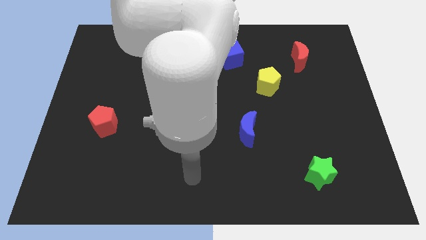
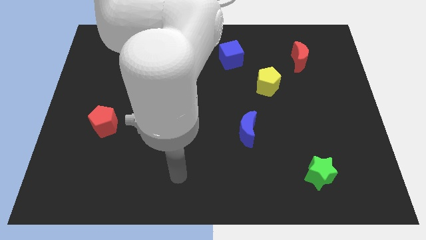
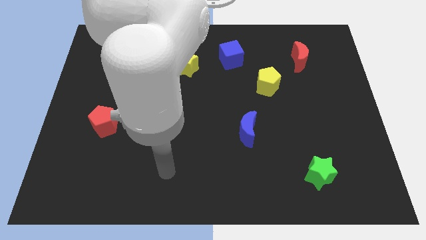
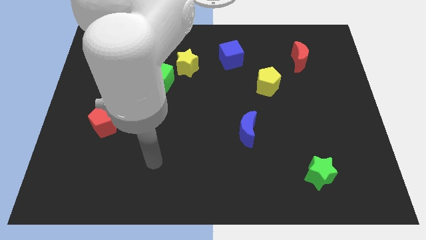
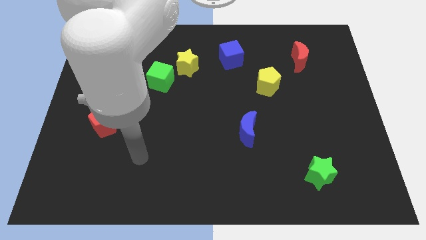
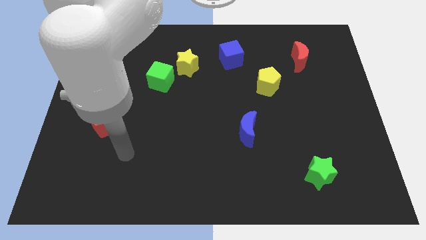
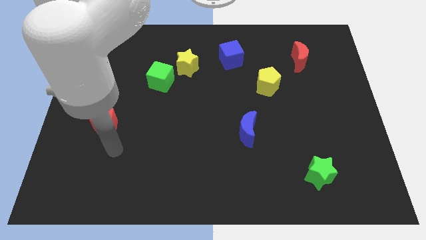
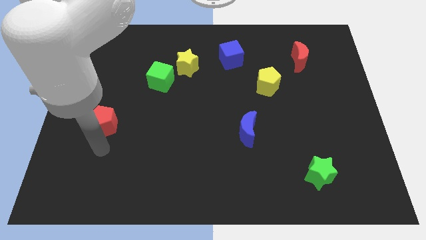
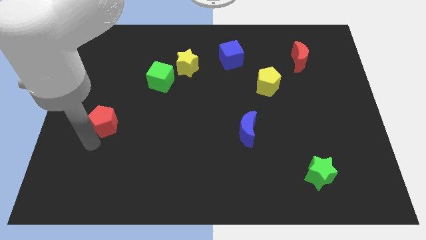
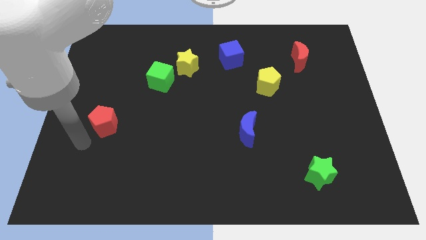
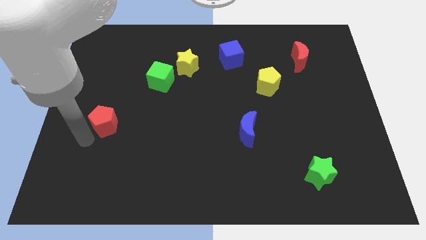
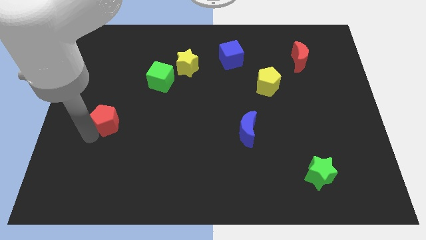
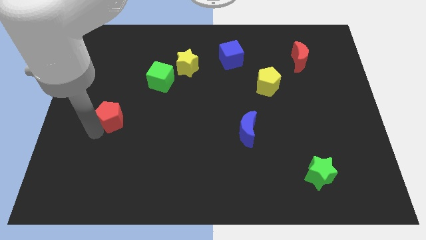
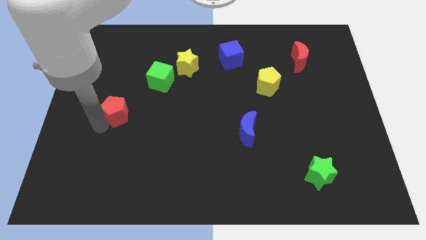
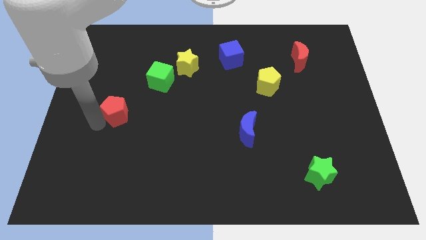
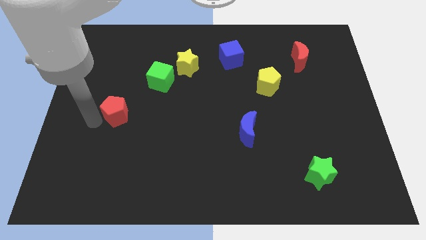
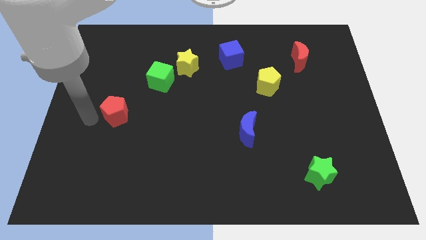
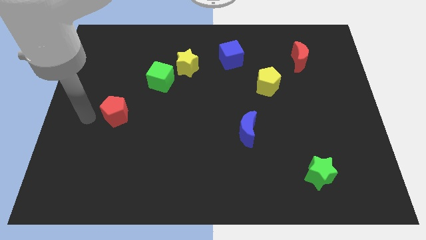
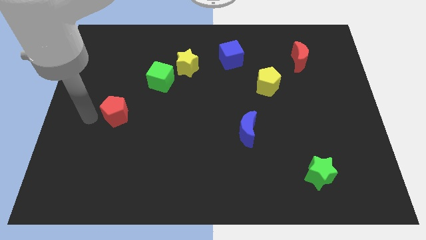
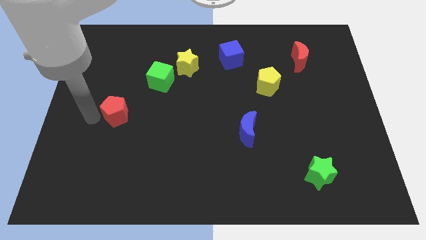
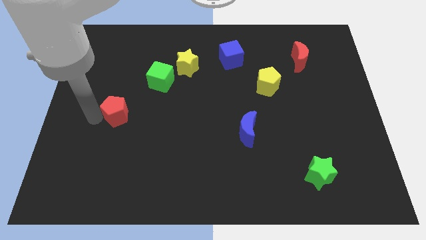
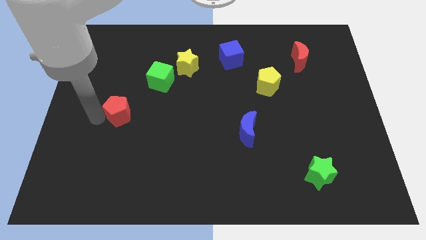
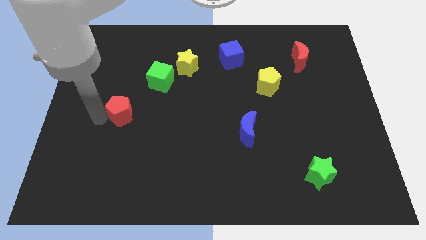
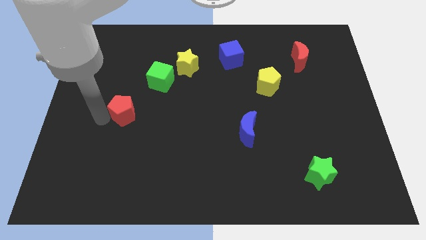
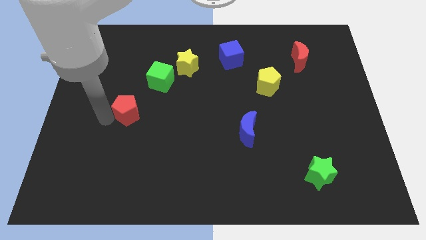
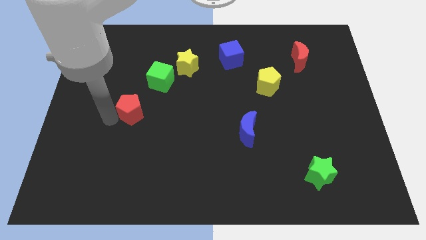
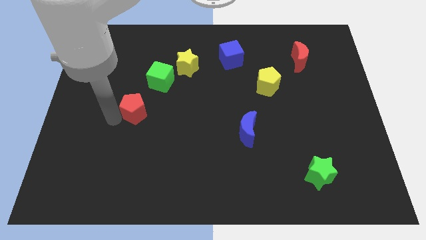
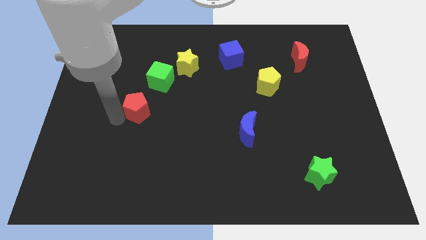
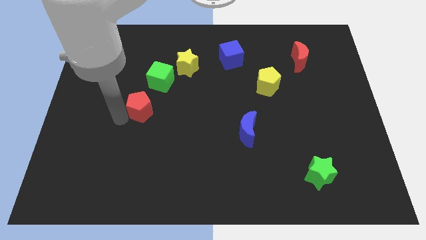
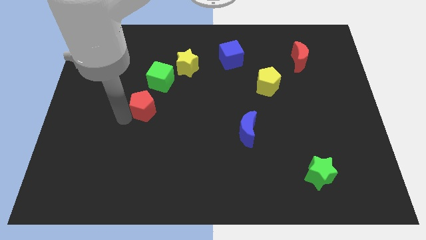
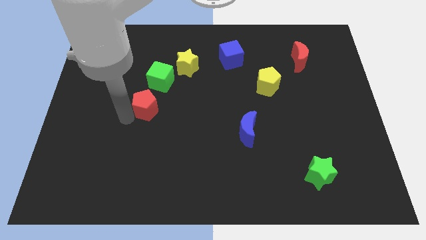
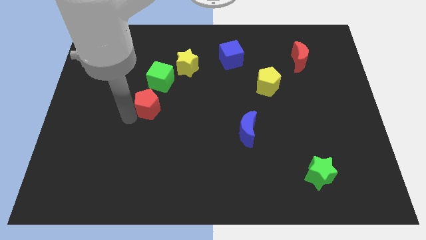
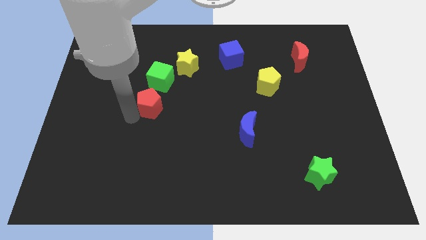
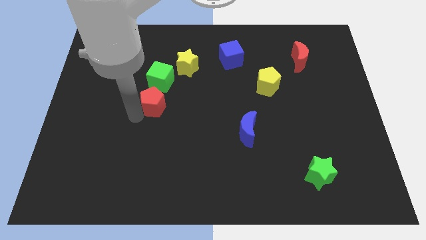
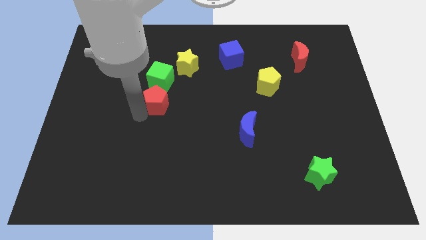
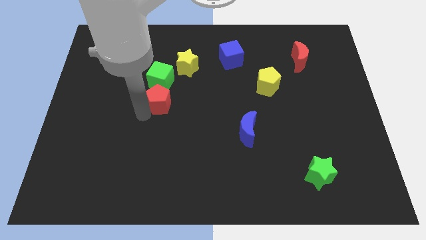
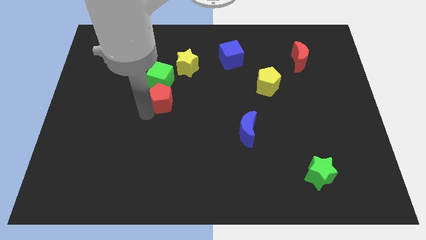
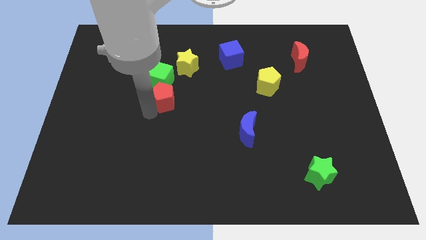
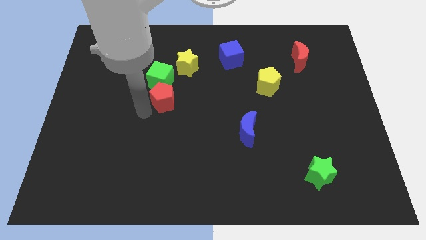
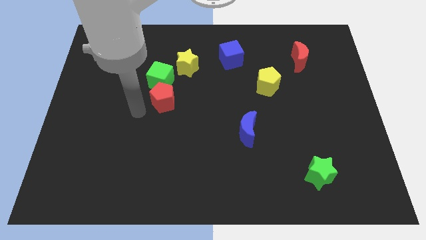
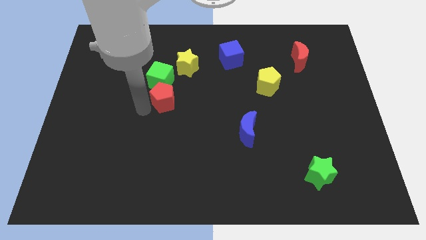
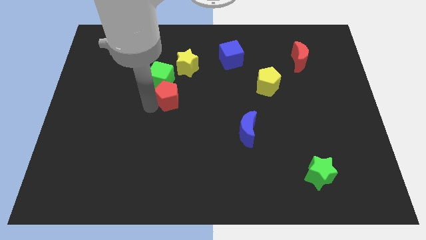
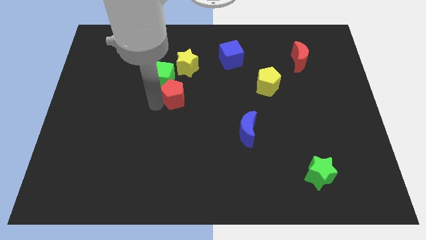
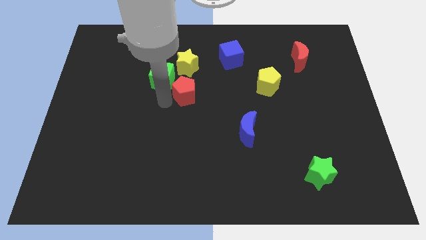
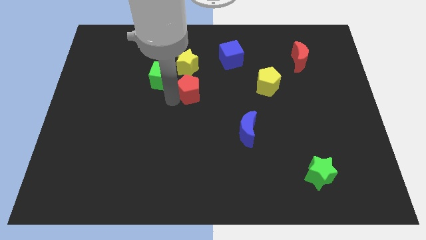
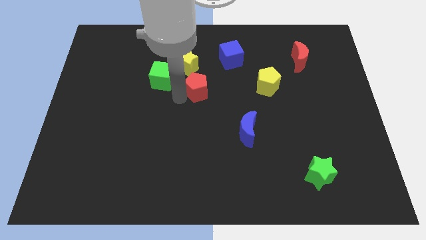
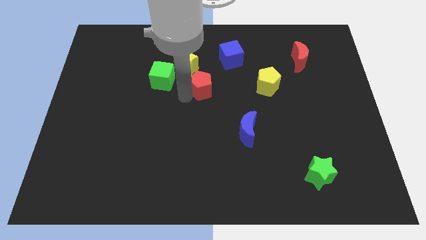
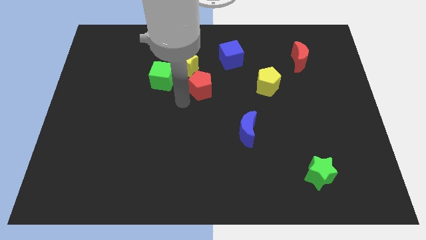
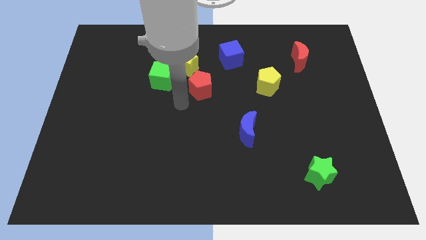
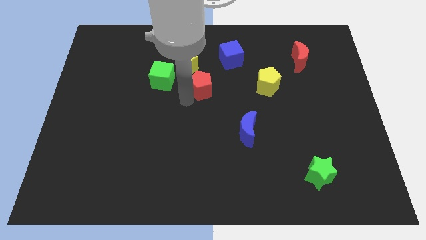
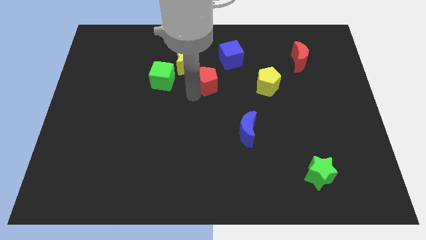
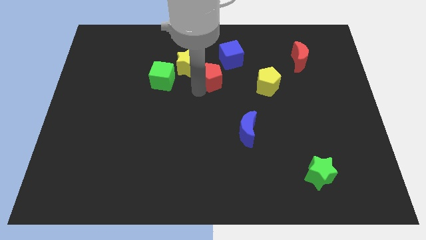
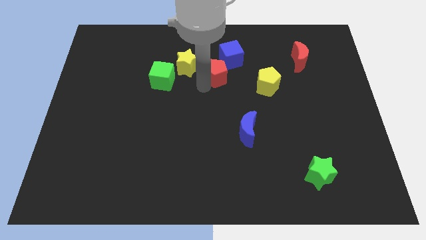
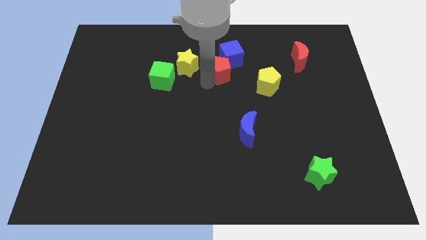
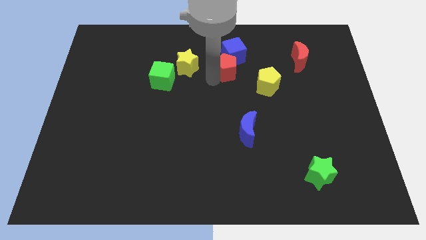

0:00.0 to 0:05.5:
move the red pentagon towards the blue cube

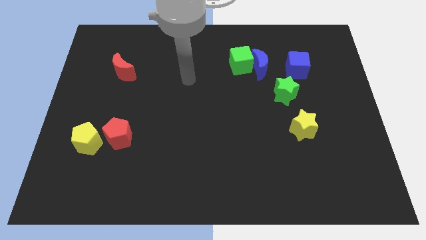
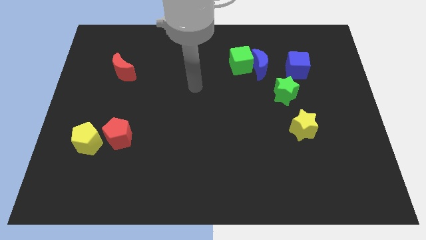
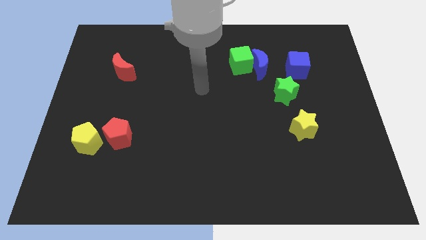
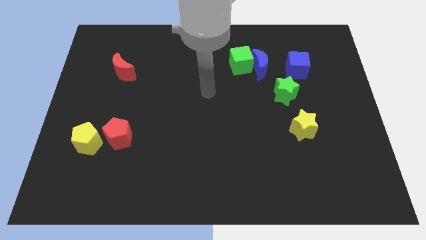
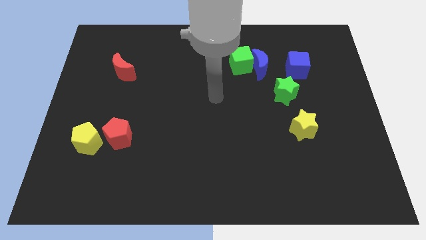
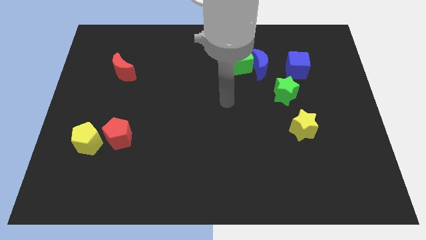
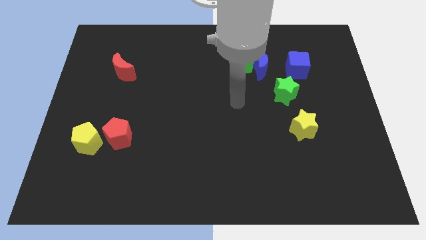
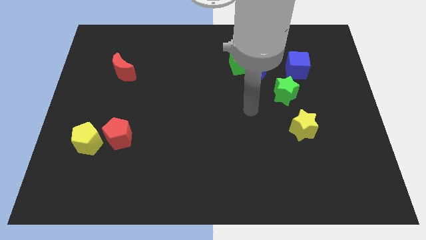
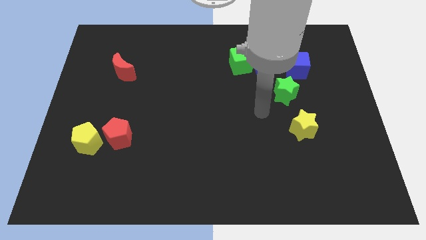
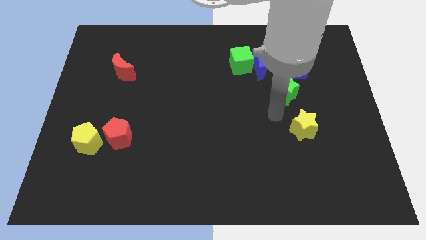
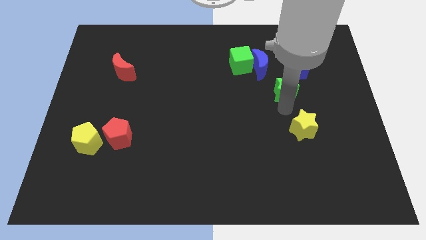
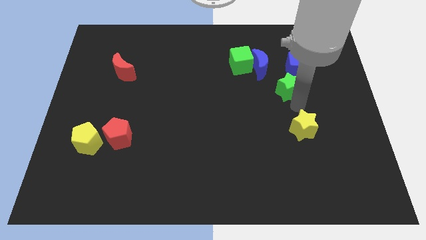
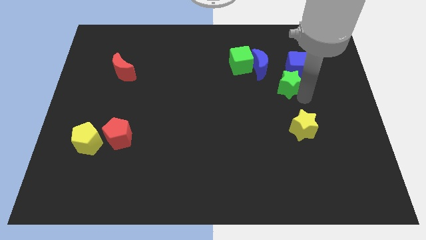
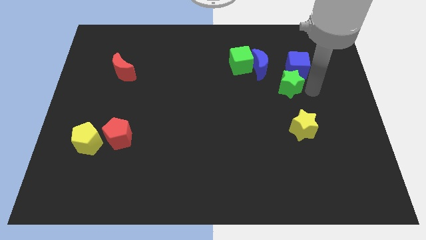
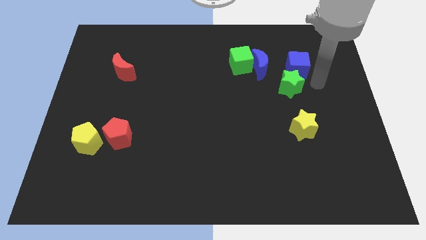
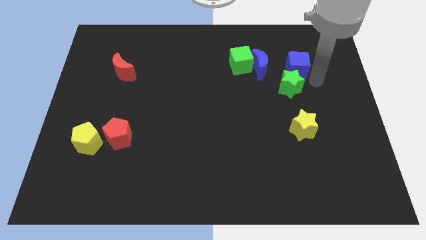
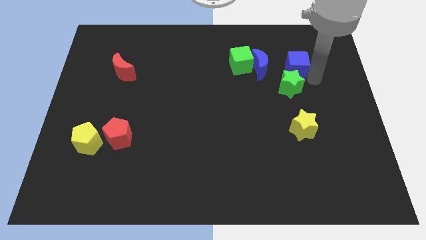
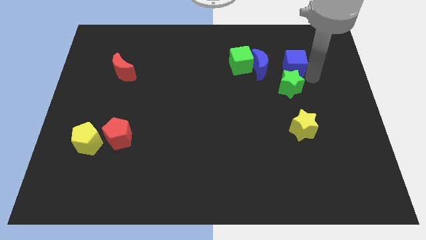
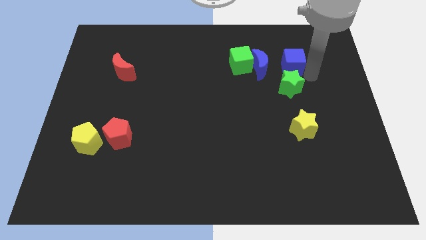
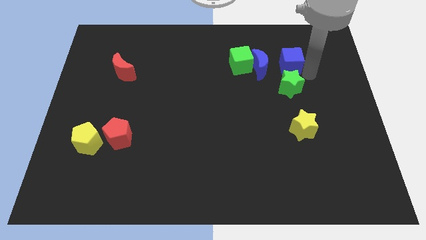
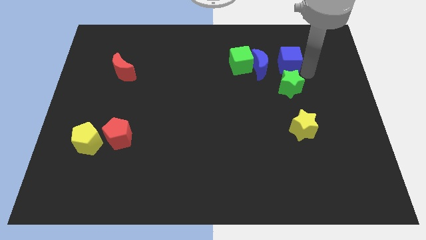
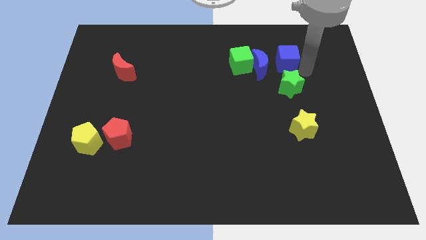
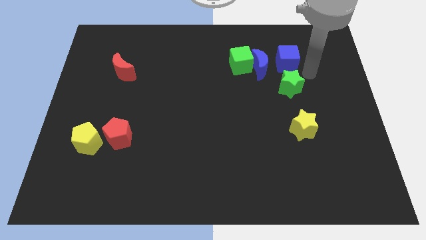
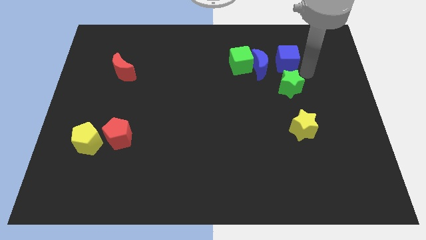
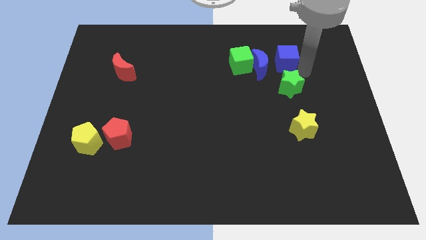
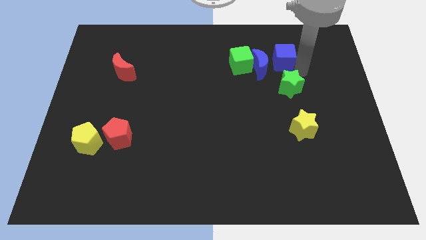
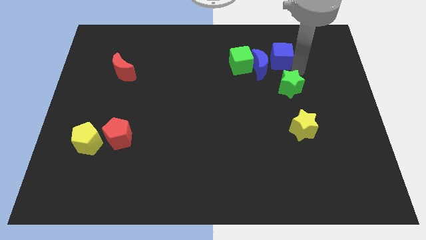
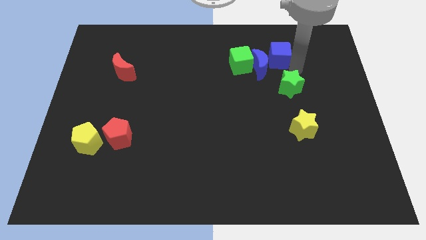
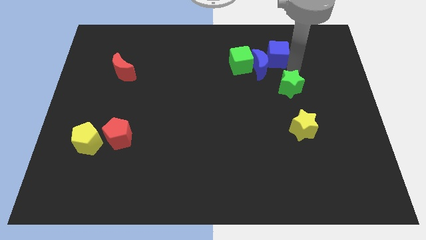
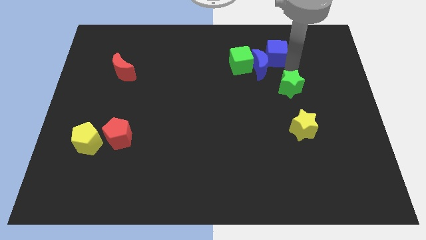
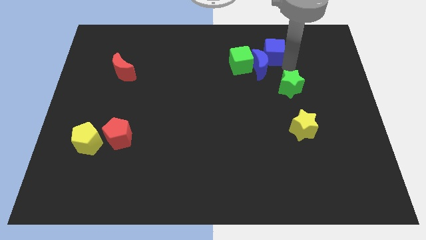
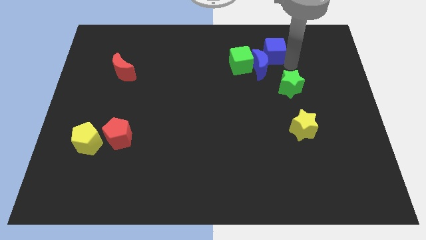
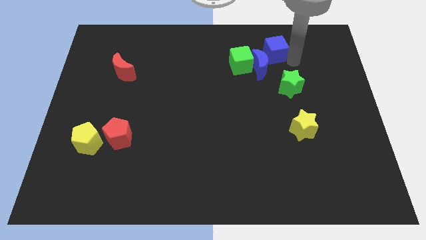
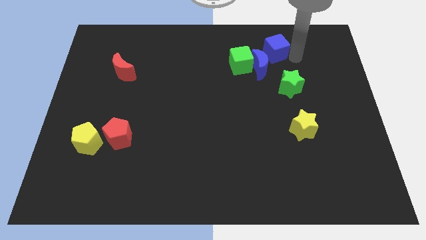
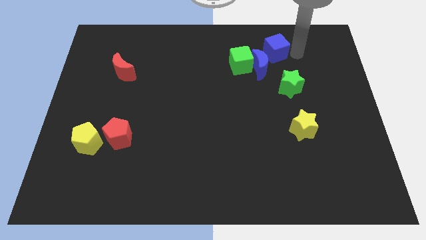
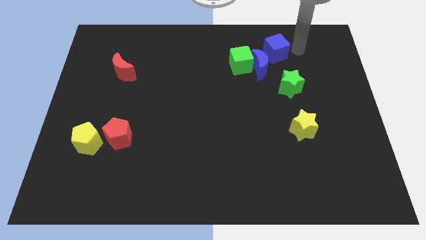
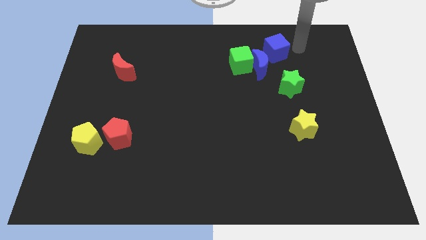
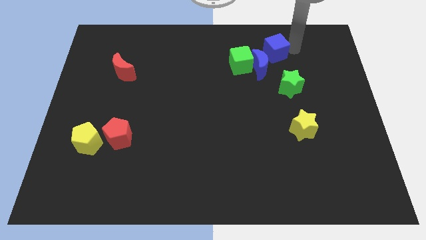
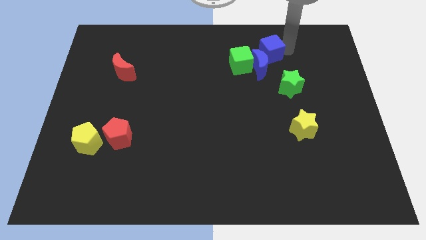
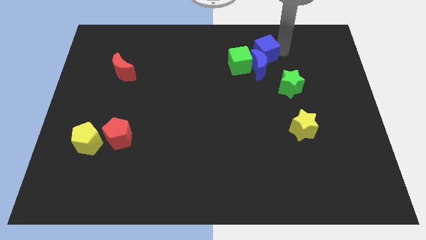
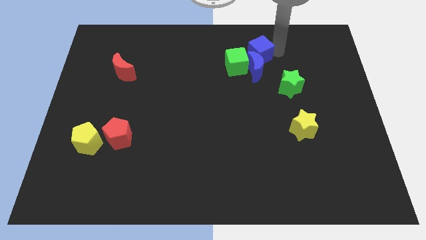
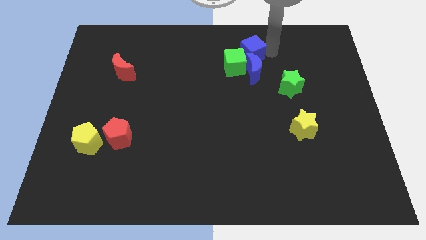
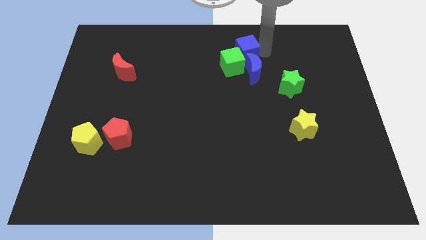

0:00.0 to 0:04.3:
slide the blue cube next to the green cube
